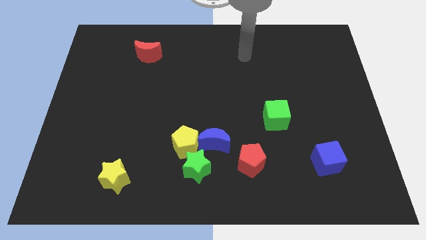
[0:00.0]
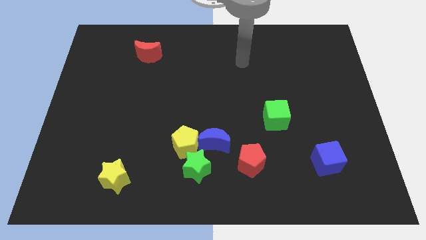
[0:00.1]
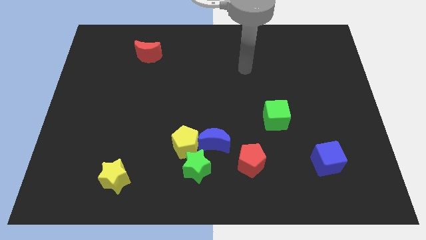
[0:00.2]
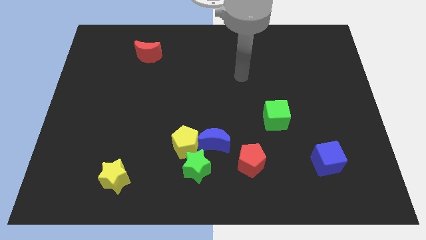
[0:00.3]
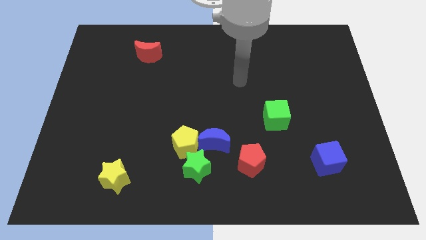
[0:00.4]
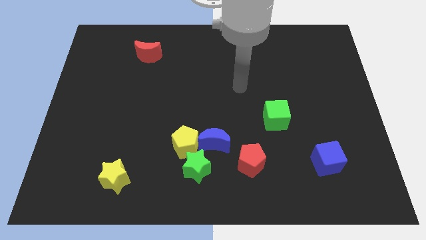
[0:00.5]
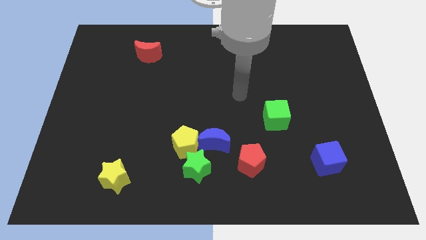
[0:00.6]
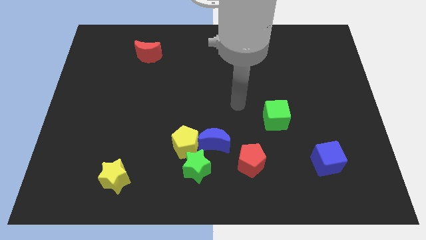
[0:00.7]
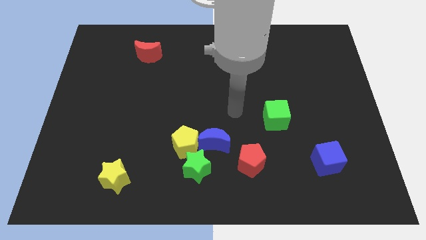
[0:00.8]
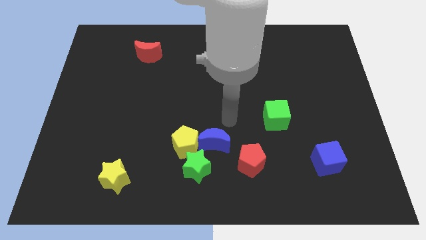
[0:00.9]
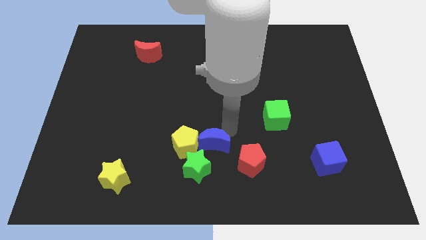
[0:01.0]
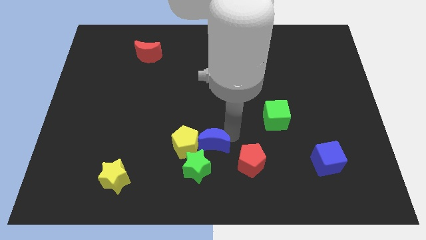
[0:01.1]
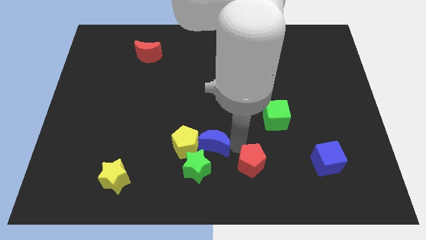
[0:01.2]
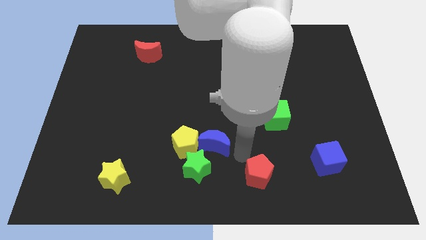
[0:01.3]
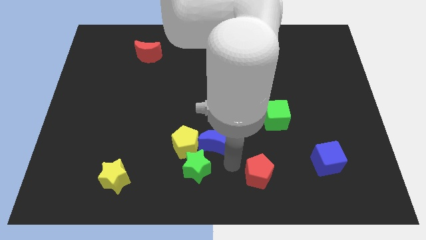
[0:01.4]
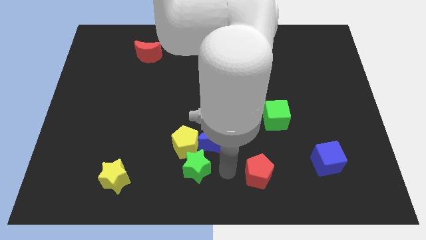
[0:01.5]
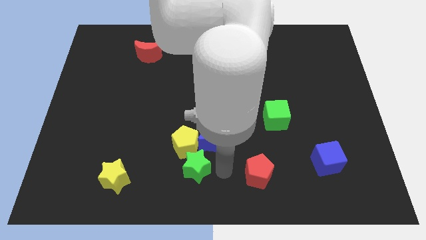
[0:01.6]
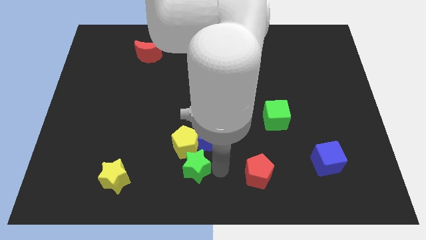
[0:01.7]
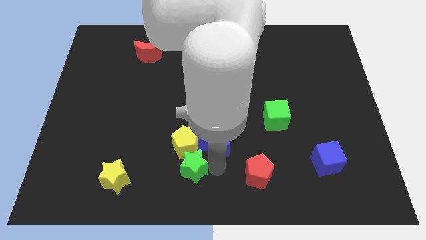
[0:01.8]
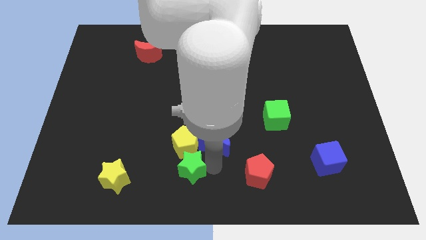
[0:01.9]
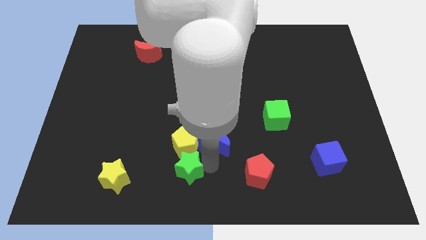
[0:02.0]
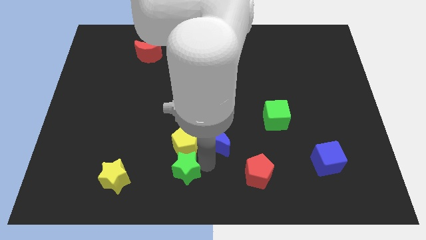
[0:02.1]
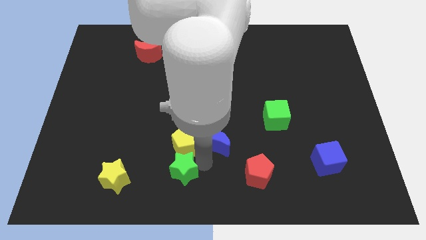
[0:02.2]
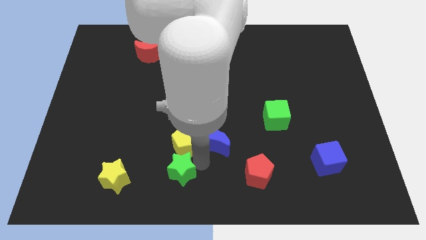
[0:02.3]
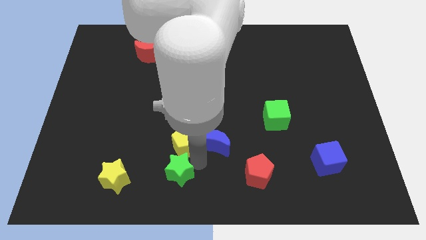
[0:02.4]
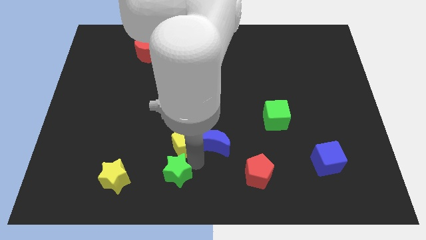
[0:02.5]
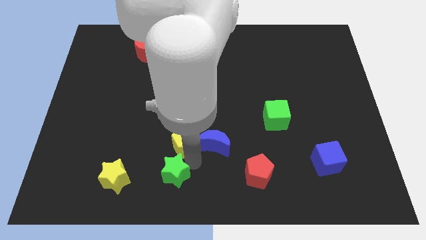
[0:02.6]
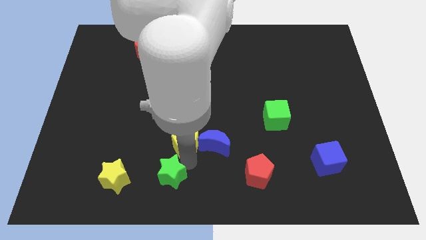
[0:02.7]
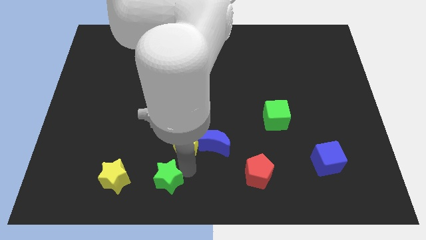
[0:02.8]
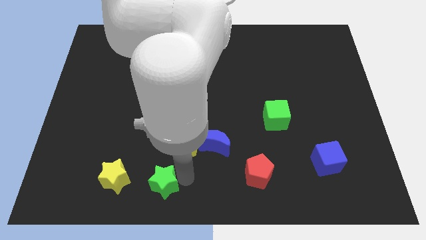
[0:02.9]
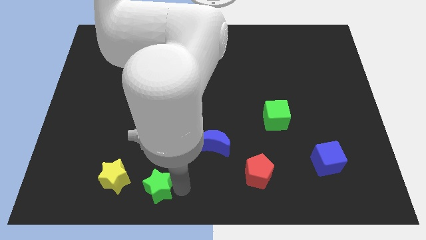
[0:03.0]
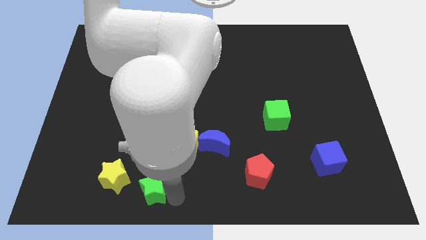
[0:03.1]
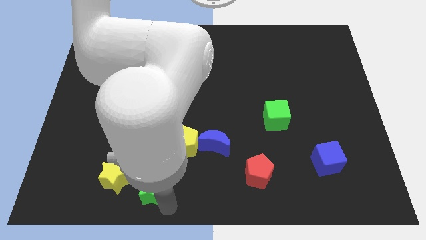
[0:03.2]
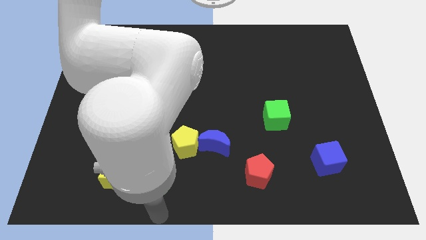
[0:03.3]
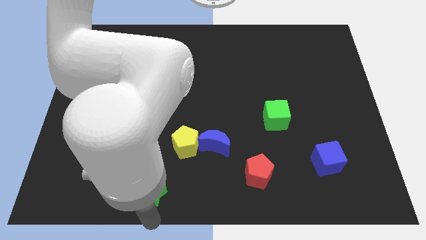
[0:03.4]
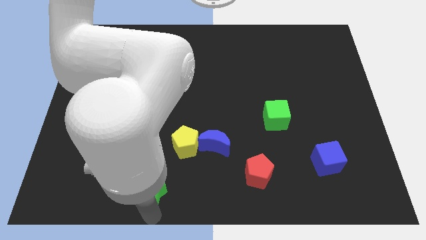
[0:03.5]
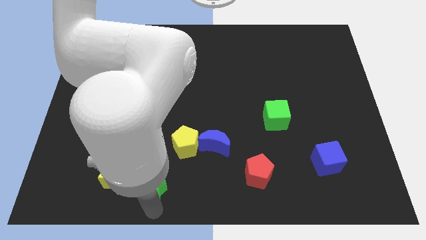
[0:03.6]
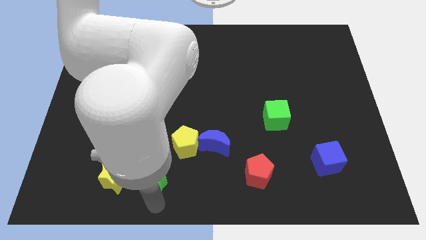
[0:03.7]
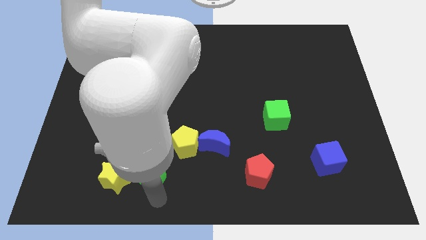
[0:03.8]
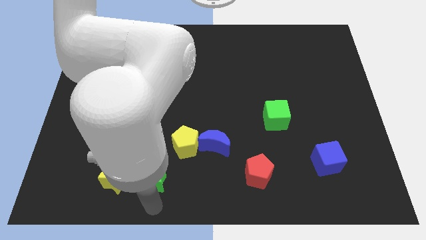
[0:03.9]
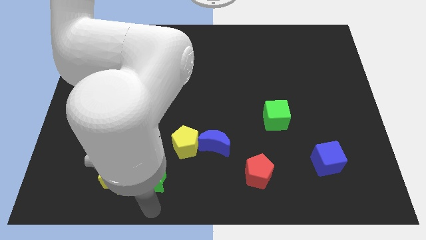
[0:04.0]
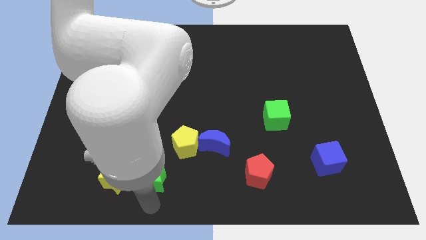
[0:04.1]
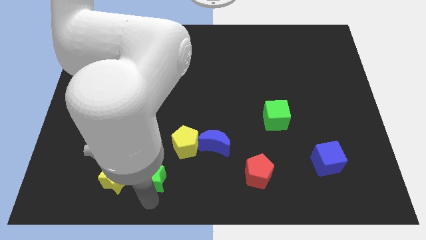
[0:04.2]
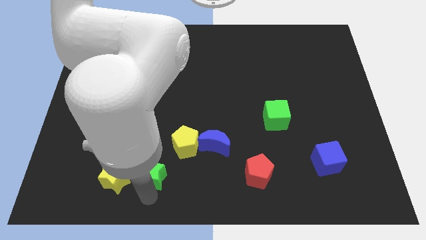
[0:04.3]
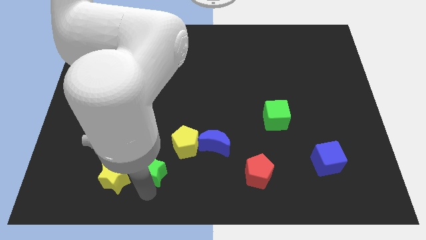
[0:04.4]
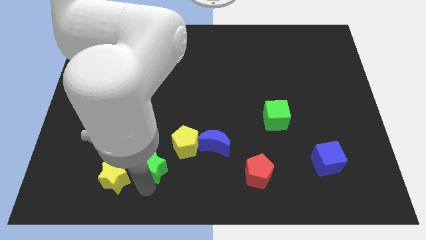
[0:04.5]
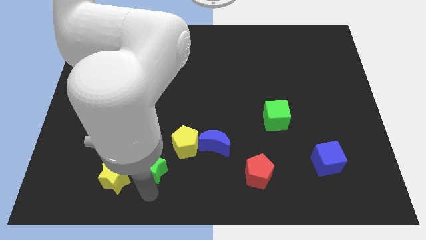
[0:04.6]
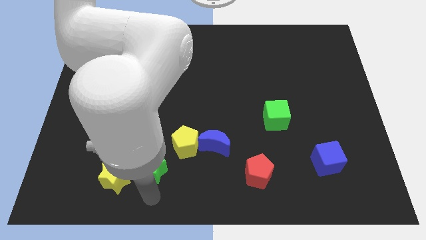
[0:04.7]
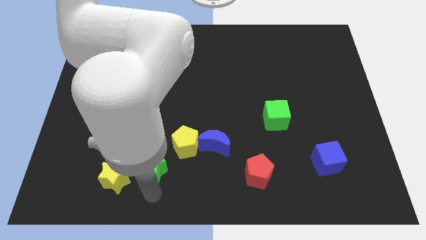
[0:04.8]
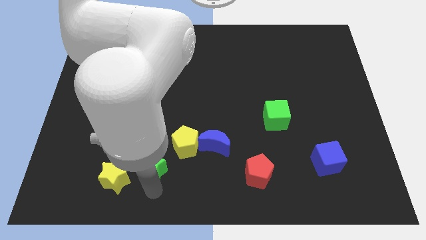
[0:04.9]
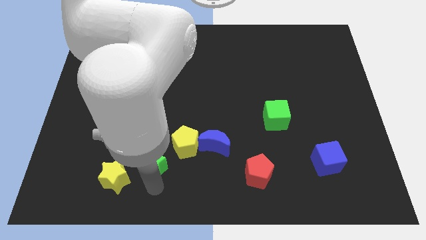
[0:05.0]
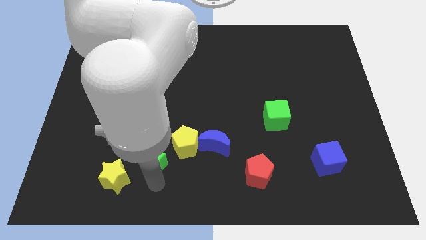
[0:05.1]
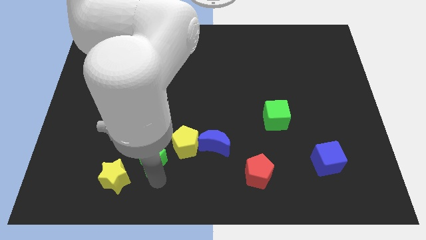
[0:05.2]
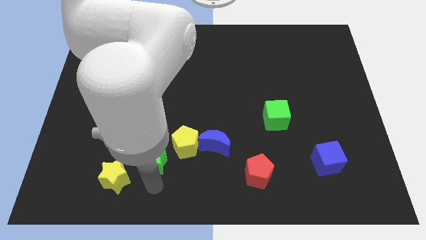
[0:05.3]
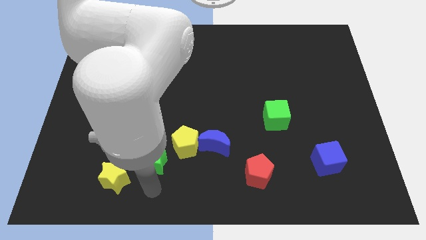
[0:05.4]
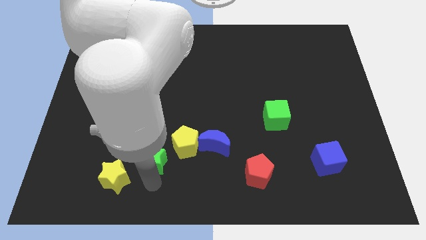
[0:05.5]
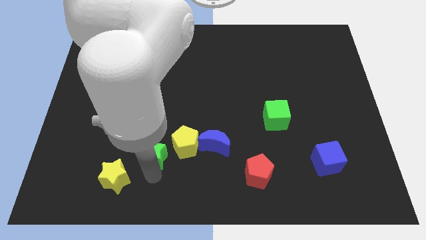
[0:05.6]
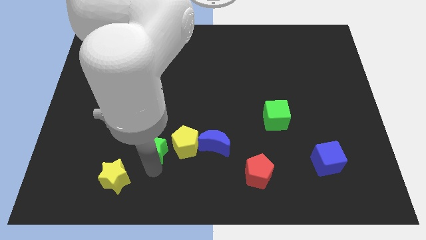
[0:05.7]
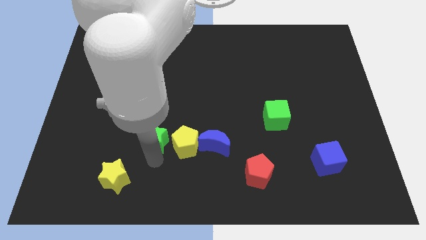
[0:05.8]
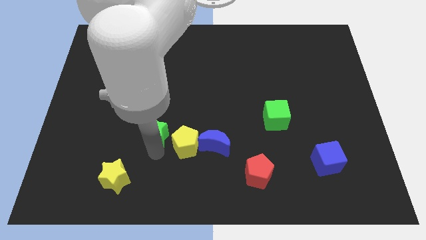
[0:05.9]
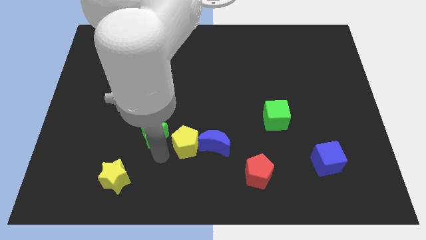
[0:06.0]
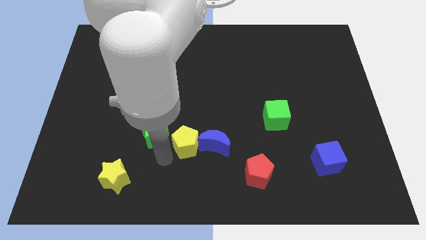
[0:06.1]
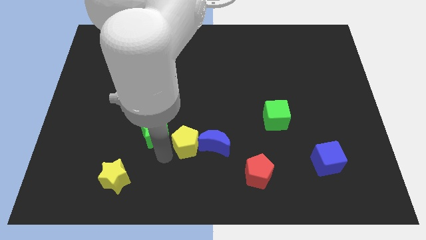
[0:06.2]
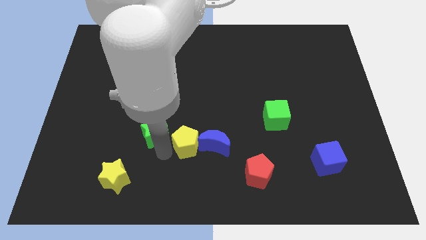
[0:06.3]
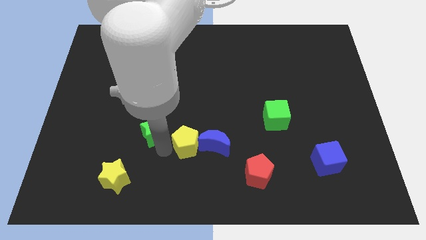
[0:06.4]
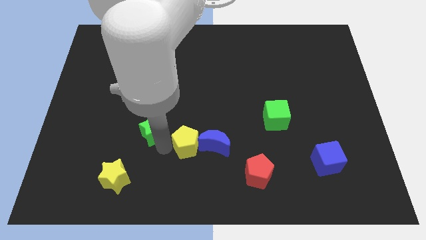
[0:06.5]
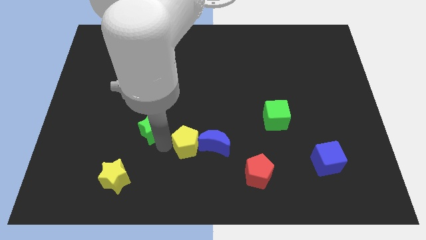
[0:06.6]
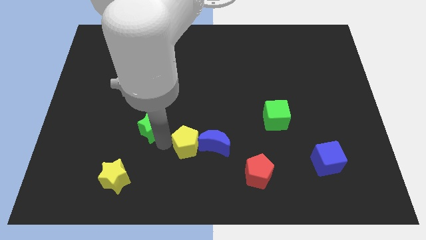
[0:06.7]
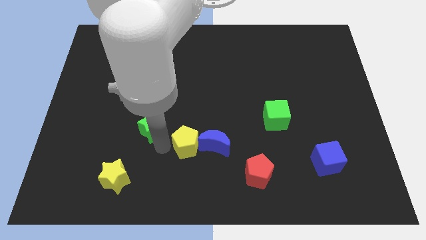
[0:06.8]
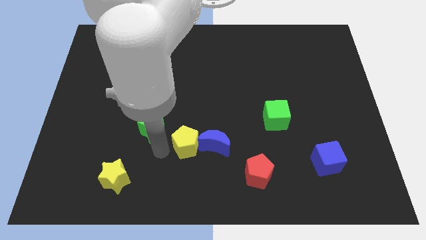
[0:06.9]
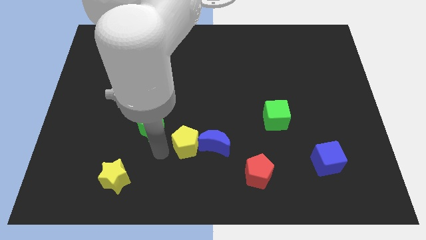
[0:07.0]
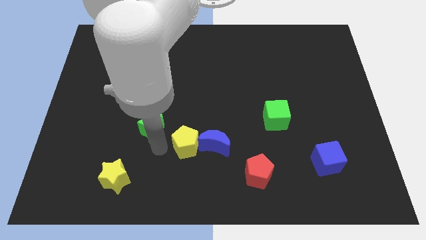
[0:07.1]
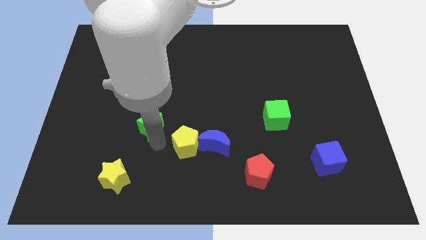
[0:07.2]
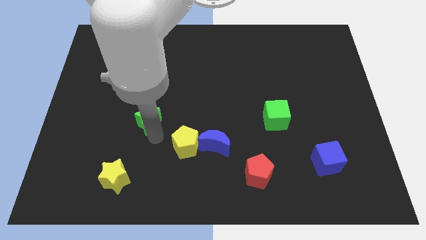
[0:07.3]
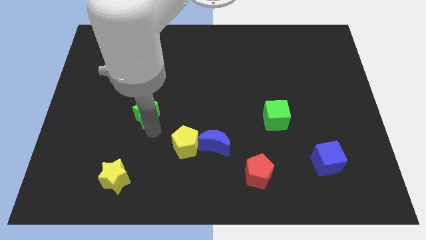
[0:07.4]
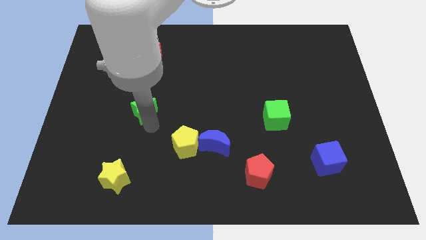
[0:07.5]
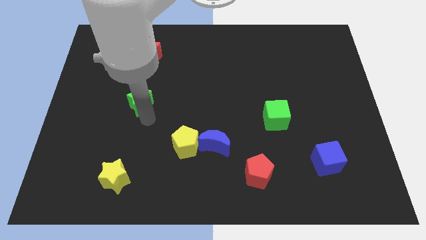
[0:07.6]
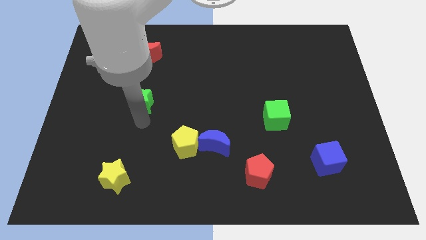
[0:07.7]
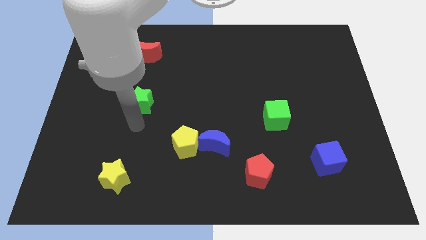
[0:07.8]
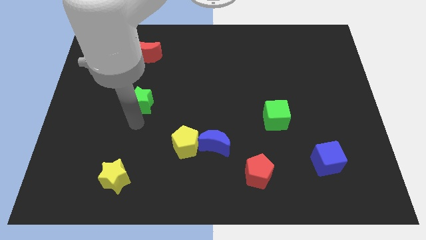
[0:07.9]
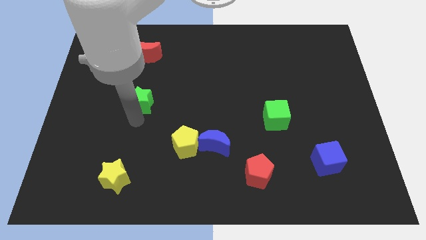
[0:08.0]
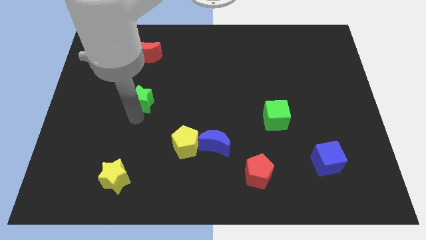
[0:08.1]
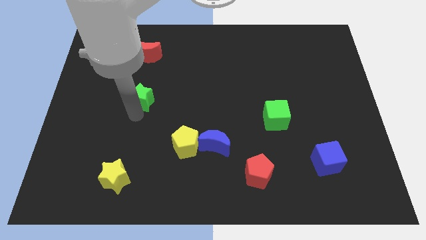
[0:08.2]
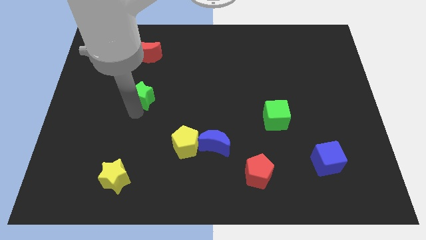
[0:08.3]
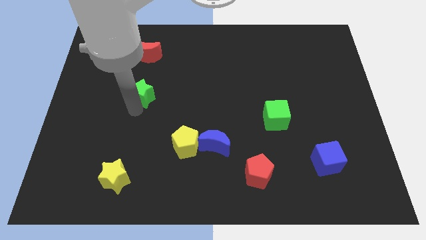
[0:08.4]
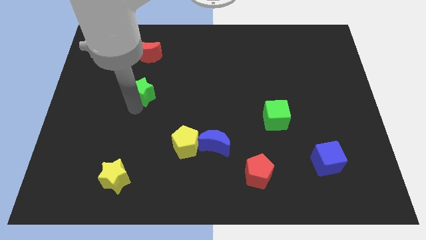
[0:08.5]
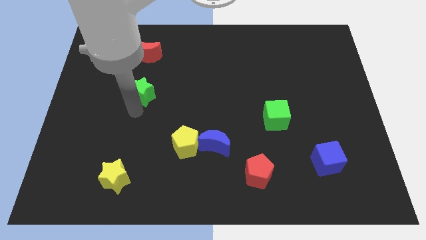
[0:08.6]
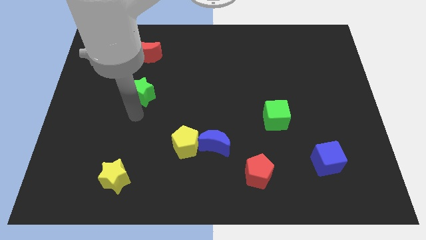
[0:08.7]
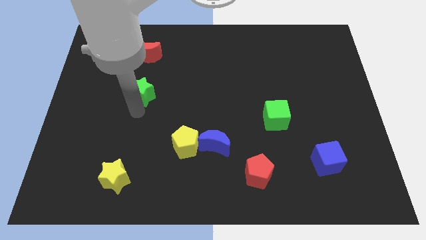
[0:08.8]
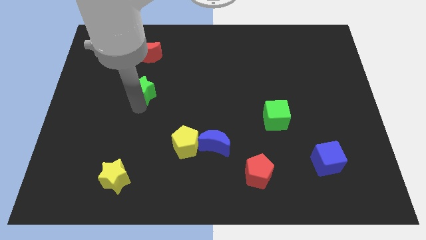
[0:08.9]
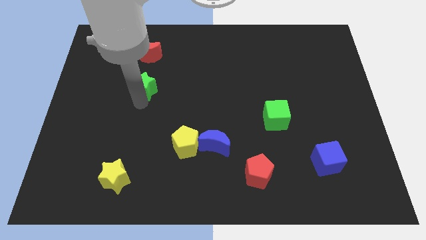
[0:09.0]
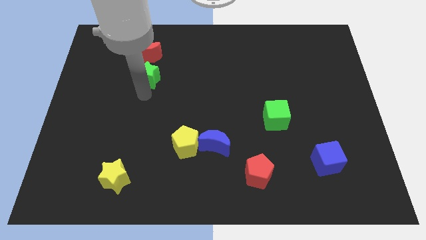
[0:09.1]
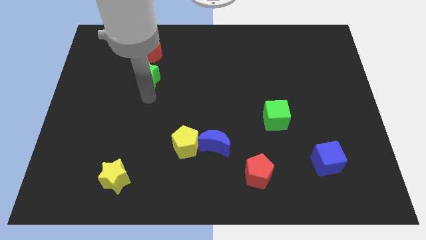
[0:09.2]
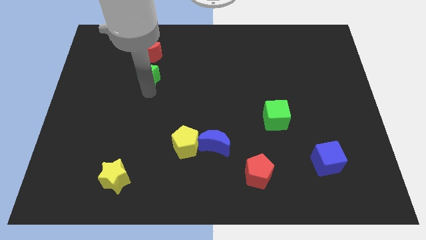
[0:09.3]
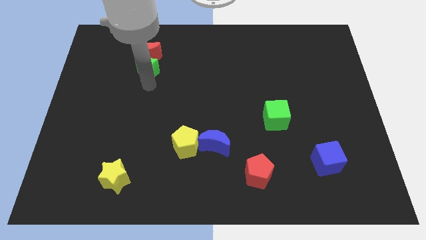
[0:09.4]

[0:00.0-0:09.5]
put the green star towards the red moon
